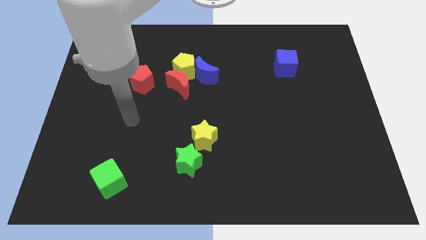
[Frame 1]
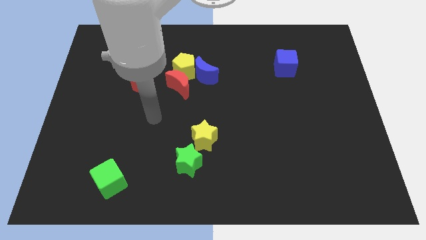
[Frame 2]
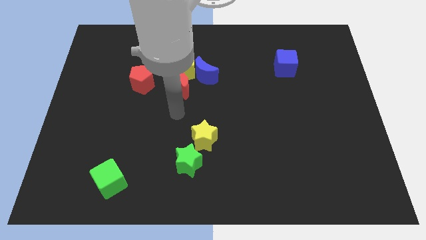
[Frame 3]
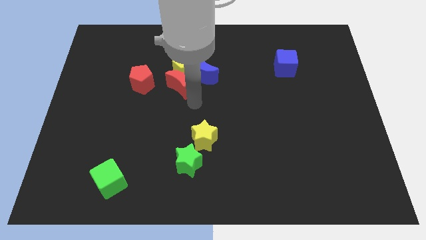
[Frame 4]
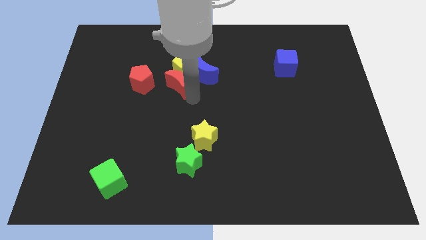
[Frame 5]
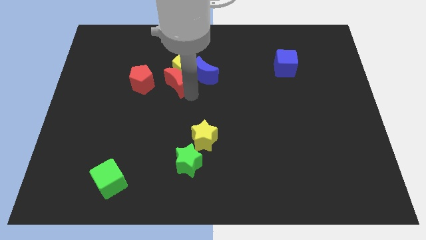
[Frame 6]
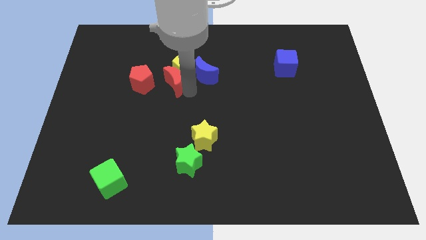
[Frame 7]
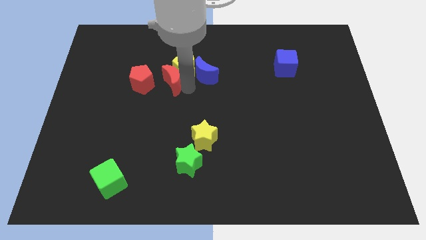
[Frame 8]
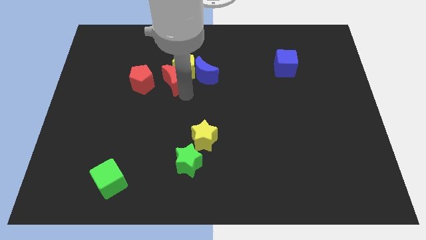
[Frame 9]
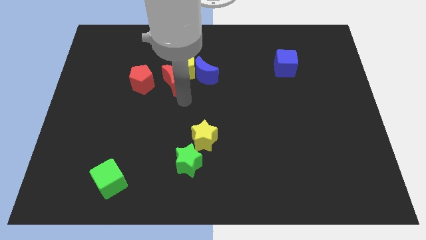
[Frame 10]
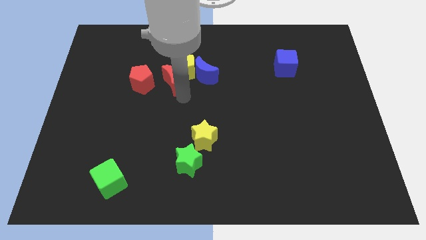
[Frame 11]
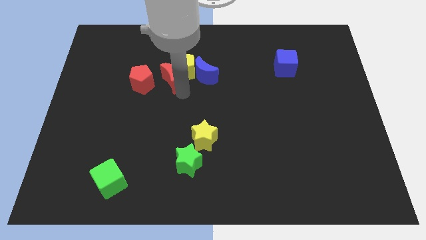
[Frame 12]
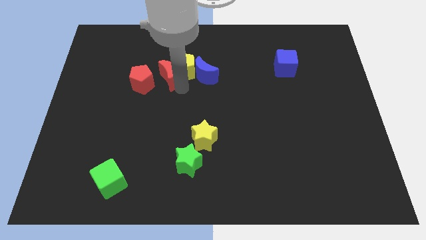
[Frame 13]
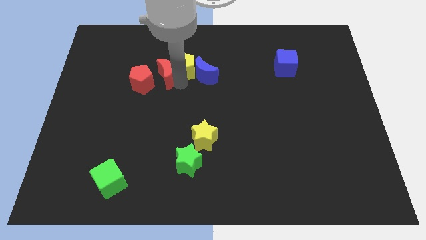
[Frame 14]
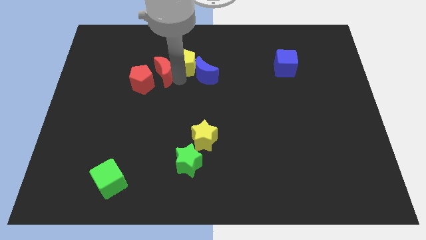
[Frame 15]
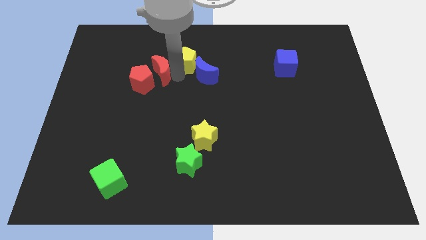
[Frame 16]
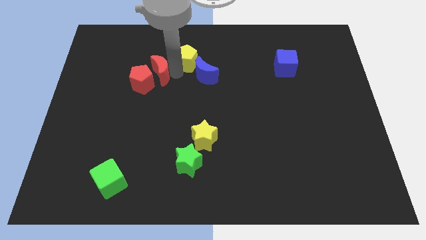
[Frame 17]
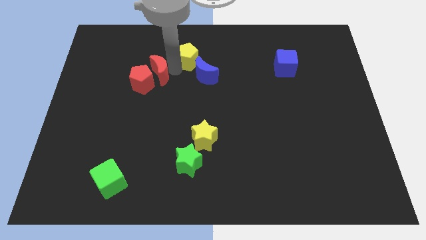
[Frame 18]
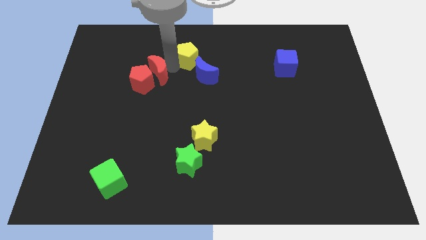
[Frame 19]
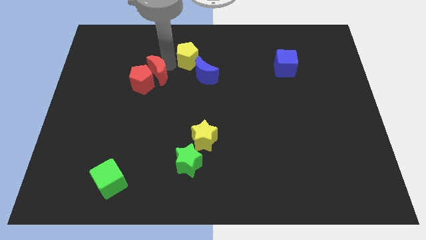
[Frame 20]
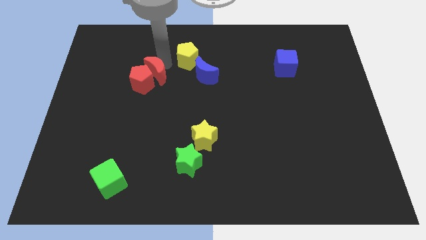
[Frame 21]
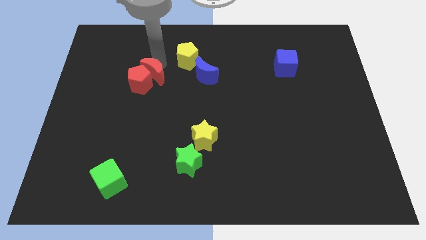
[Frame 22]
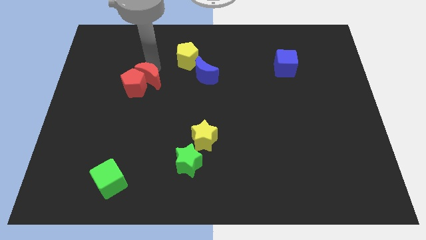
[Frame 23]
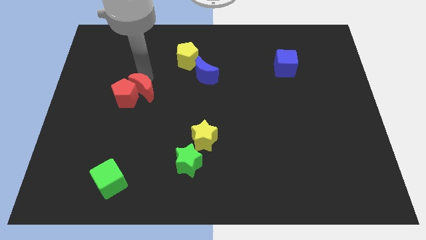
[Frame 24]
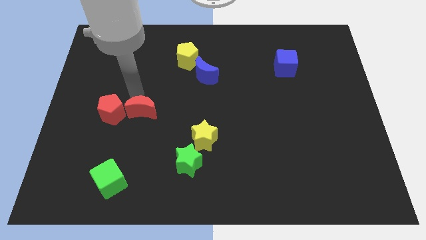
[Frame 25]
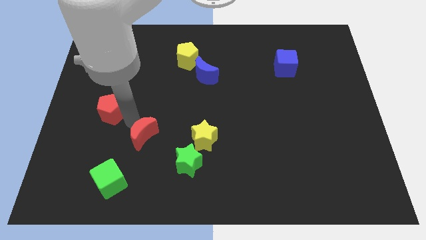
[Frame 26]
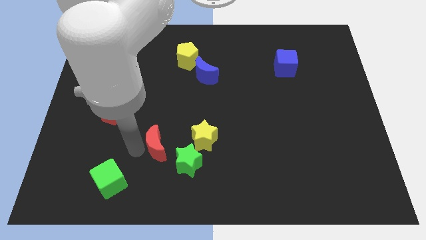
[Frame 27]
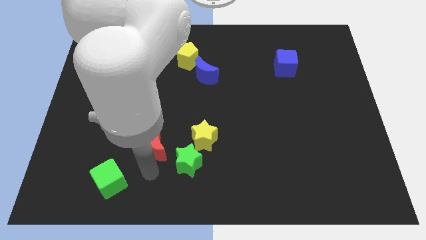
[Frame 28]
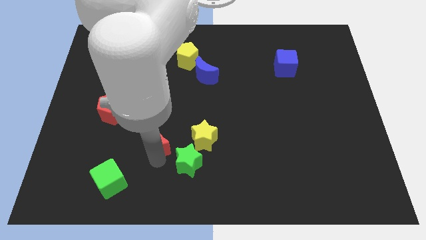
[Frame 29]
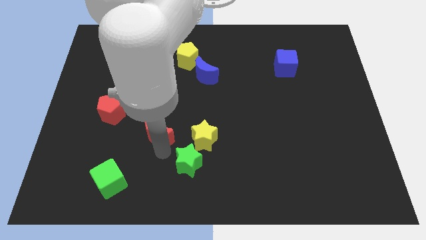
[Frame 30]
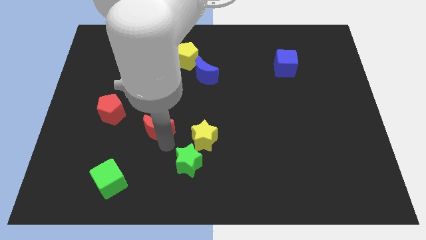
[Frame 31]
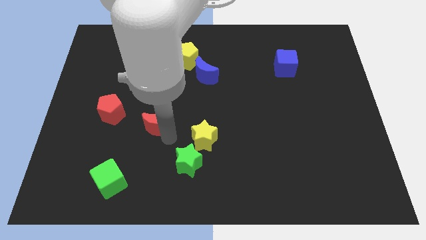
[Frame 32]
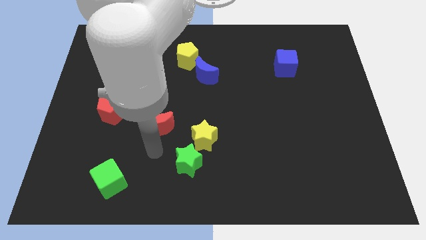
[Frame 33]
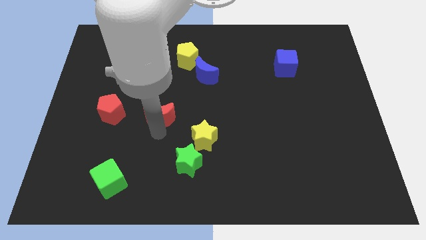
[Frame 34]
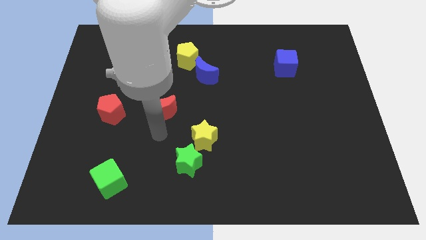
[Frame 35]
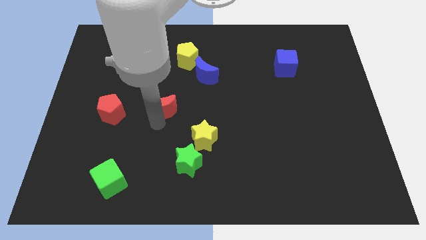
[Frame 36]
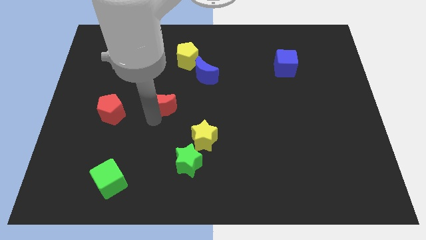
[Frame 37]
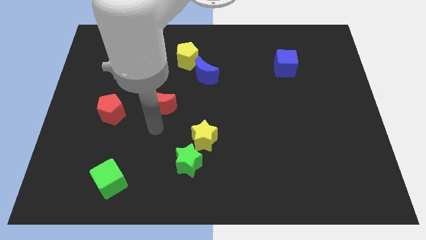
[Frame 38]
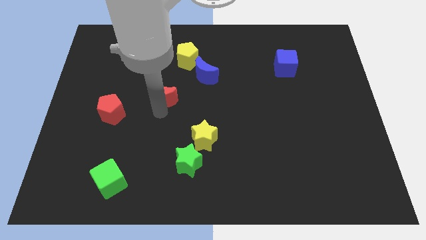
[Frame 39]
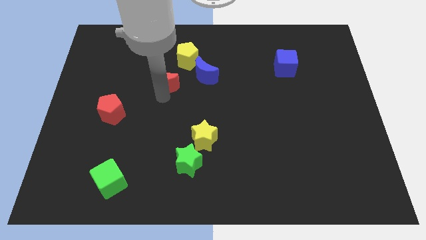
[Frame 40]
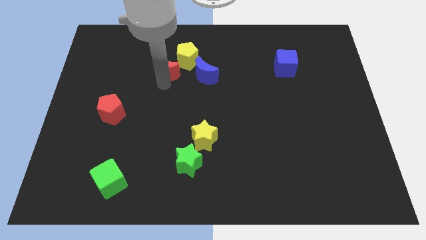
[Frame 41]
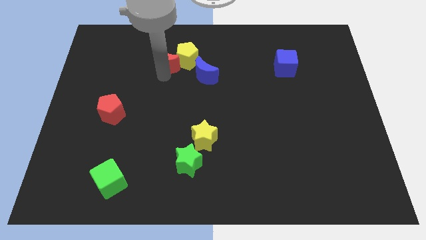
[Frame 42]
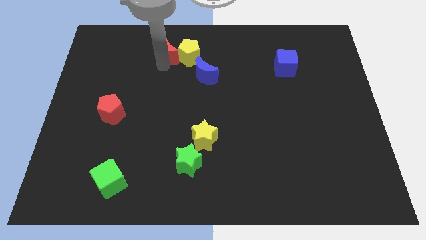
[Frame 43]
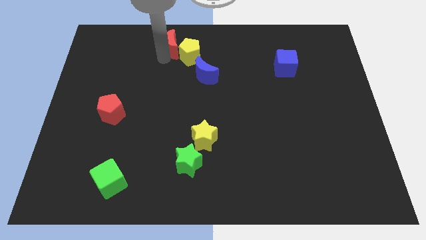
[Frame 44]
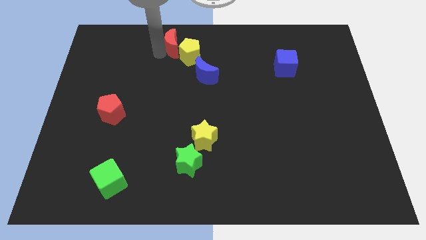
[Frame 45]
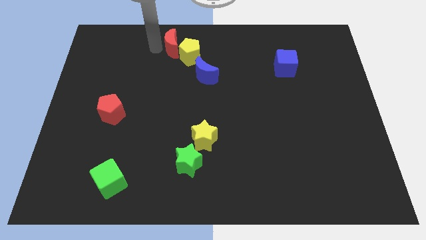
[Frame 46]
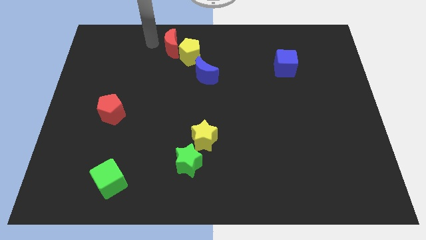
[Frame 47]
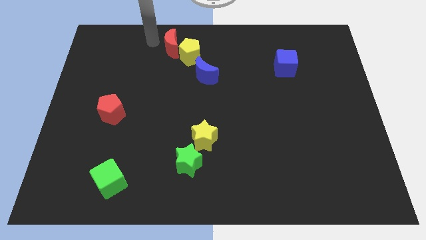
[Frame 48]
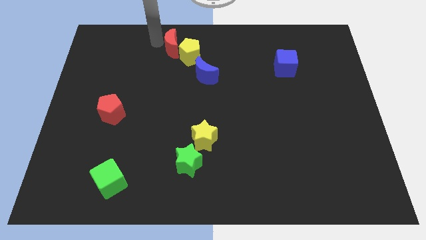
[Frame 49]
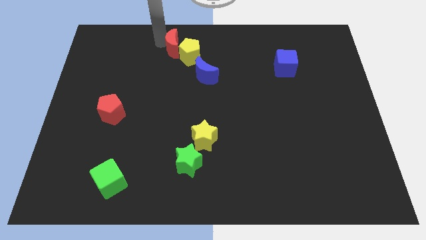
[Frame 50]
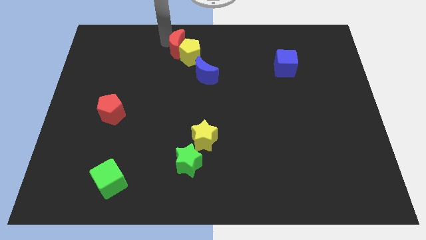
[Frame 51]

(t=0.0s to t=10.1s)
put the red moon to the top side

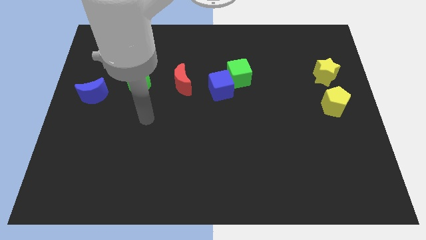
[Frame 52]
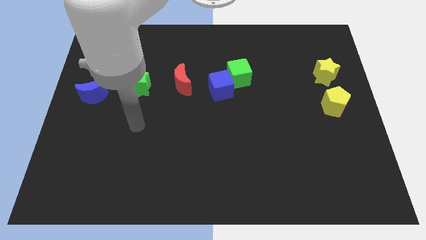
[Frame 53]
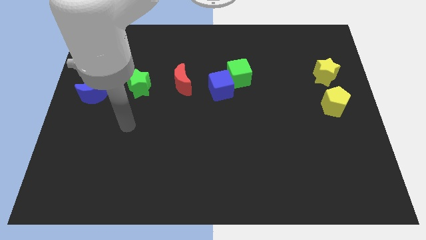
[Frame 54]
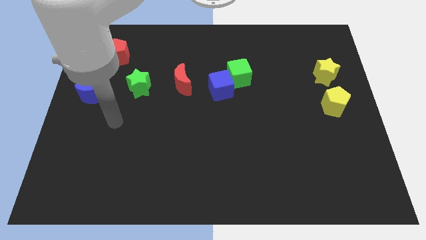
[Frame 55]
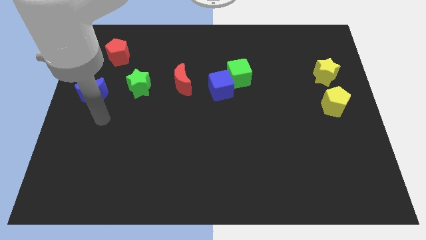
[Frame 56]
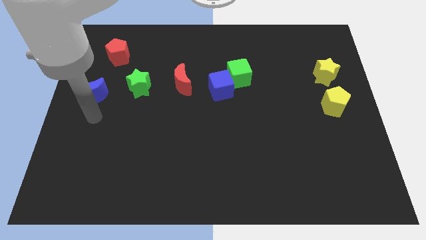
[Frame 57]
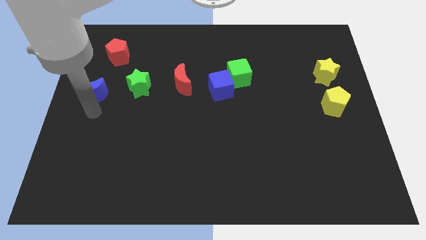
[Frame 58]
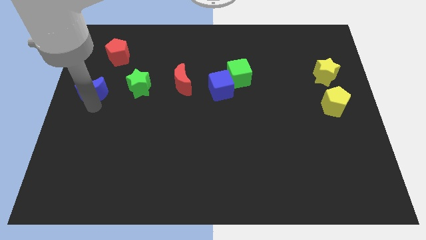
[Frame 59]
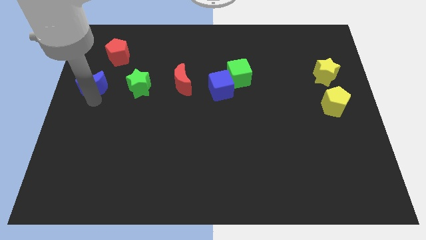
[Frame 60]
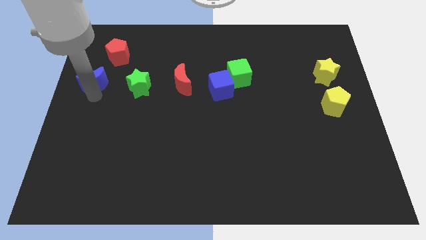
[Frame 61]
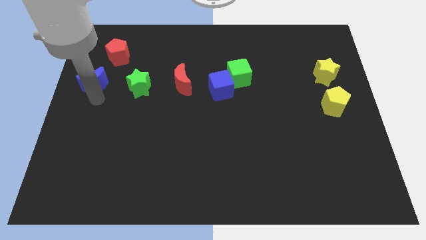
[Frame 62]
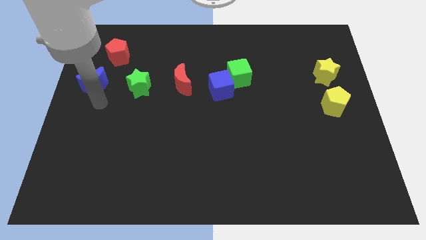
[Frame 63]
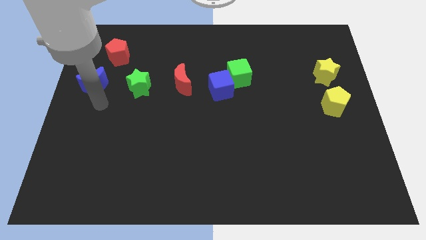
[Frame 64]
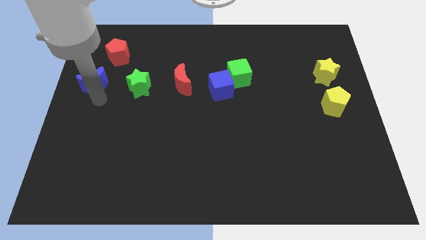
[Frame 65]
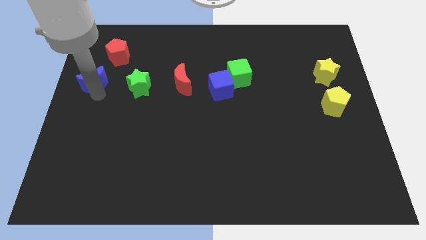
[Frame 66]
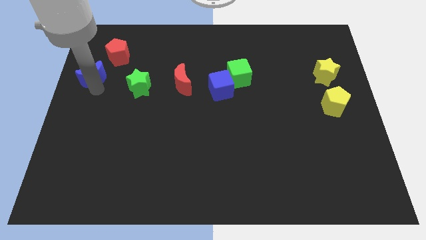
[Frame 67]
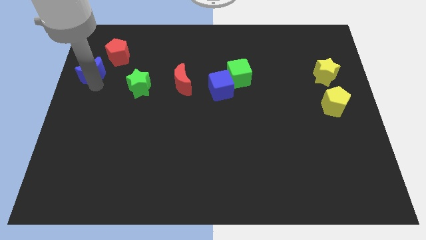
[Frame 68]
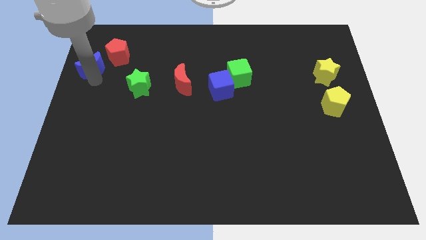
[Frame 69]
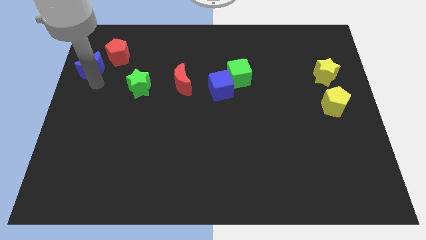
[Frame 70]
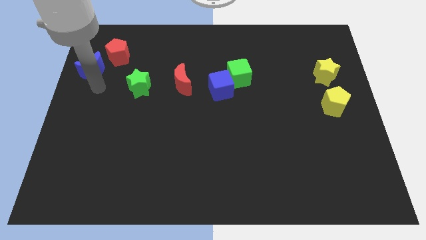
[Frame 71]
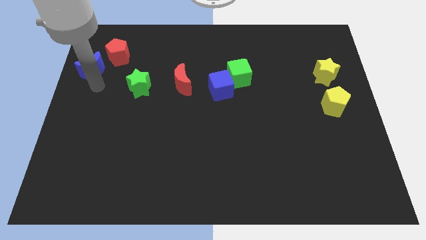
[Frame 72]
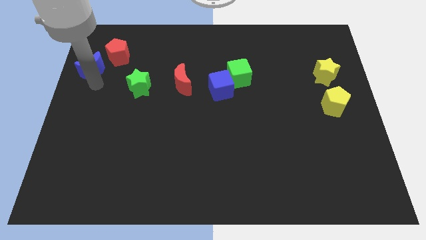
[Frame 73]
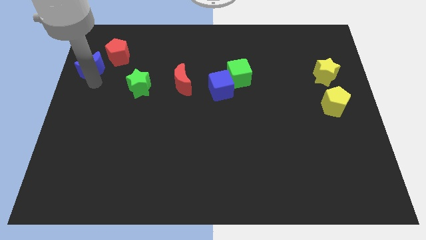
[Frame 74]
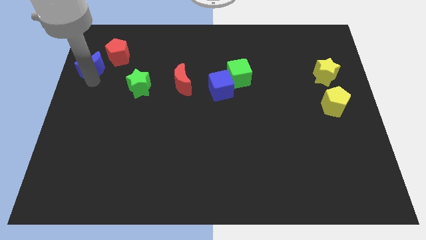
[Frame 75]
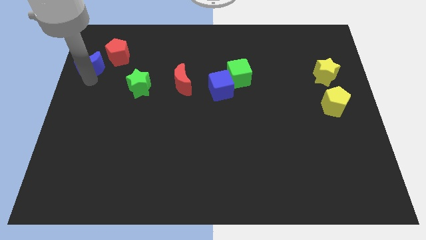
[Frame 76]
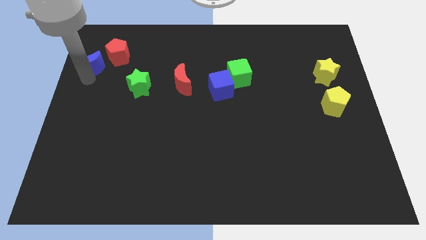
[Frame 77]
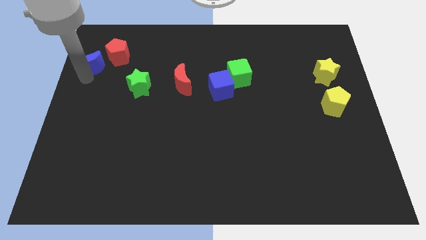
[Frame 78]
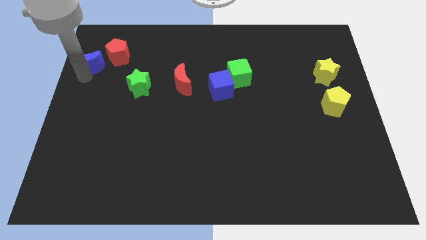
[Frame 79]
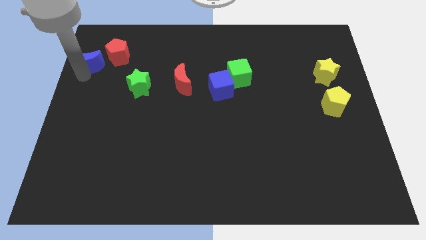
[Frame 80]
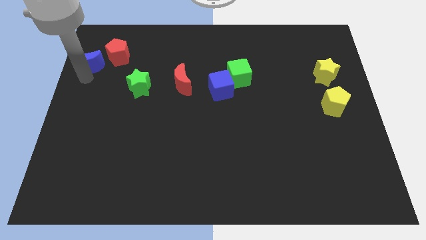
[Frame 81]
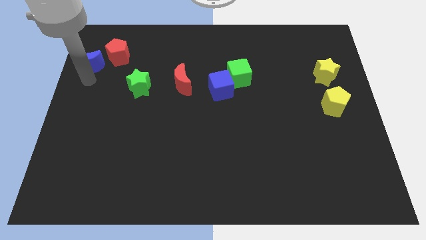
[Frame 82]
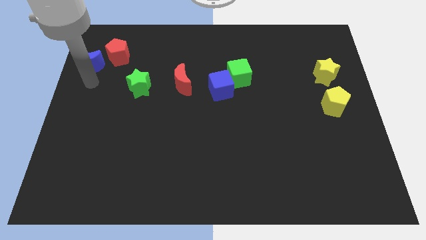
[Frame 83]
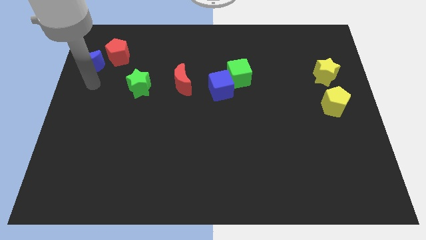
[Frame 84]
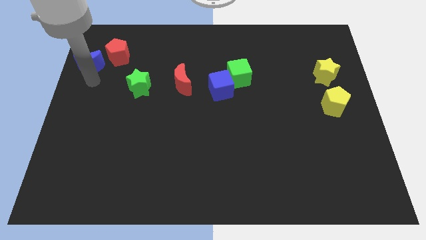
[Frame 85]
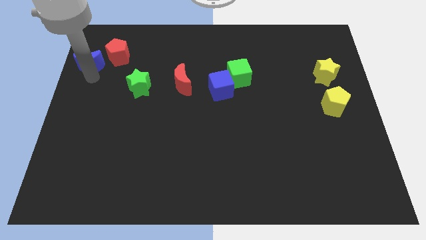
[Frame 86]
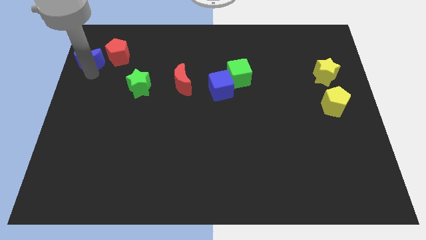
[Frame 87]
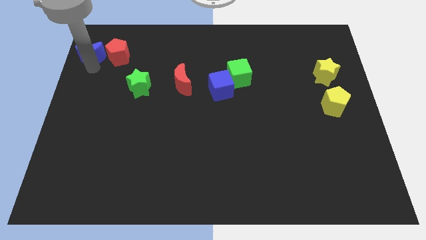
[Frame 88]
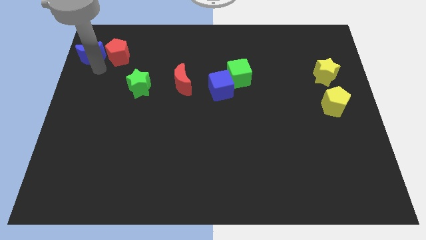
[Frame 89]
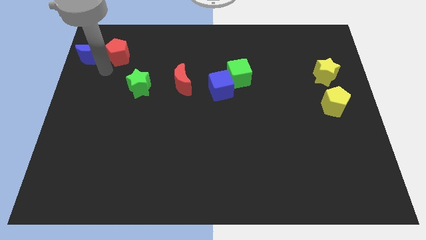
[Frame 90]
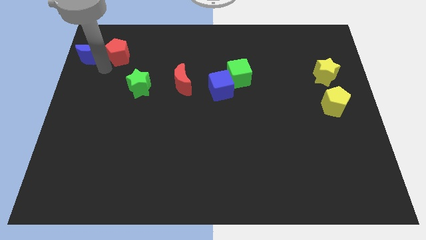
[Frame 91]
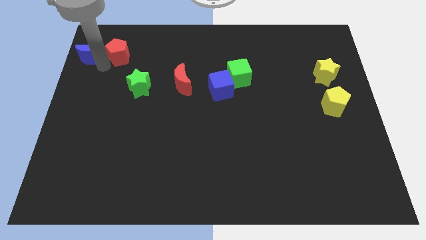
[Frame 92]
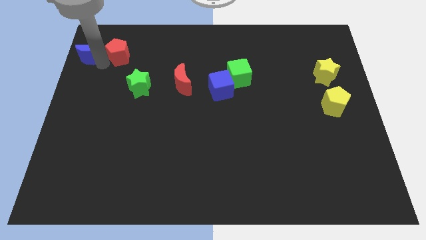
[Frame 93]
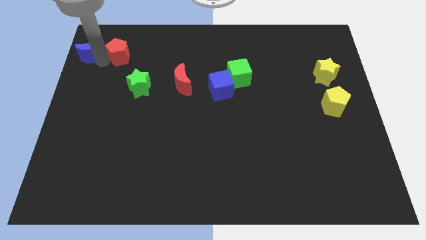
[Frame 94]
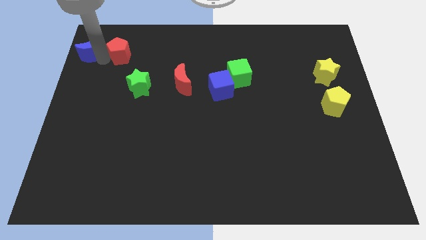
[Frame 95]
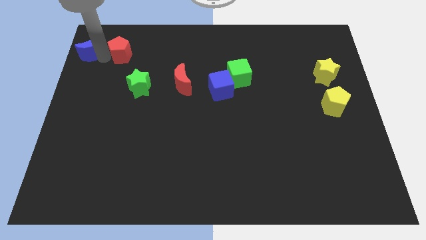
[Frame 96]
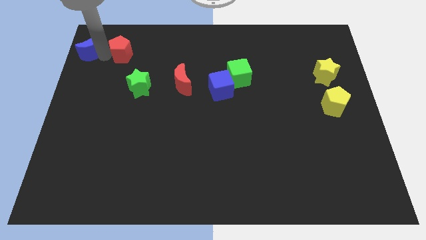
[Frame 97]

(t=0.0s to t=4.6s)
put the blue moon to the top left
